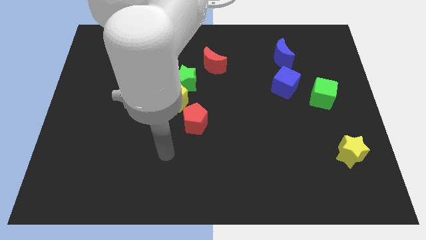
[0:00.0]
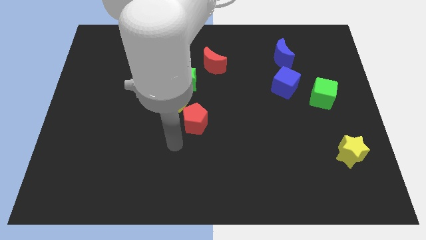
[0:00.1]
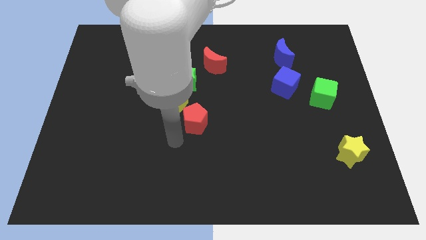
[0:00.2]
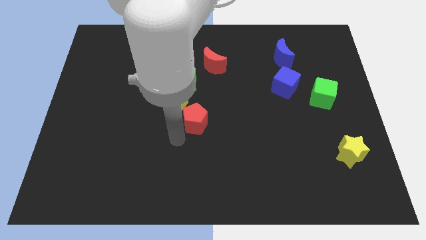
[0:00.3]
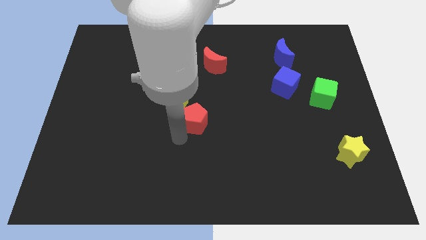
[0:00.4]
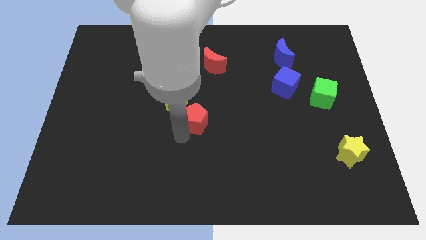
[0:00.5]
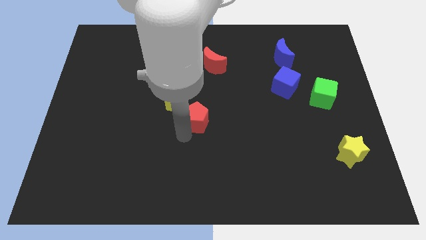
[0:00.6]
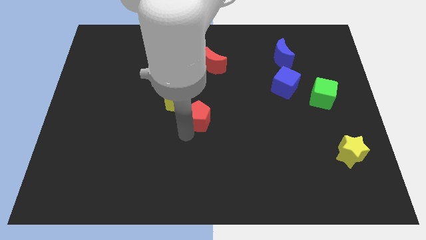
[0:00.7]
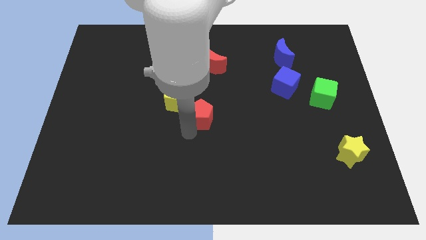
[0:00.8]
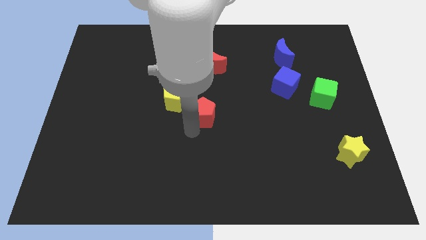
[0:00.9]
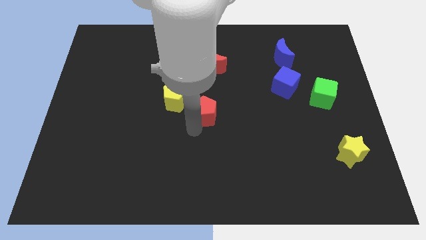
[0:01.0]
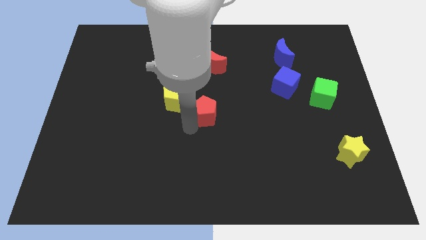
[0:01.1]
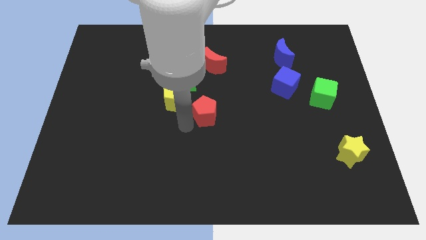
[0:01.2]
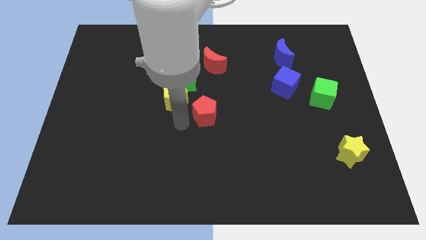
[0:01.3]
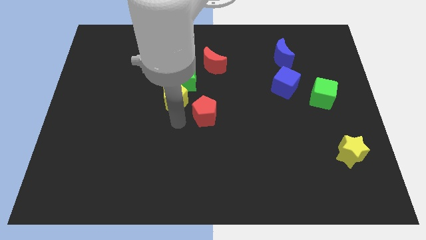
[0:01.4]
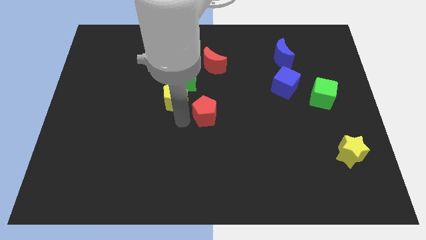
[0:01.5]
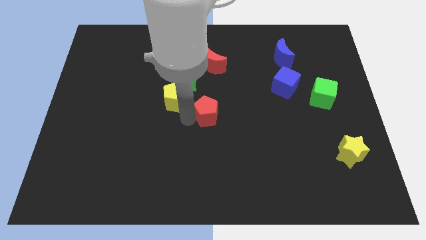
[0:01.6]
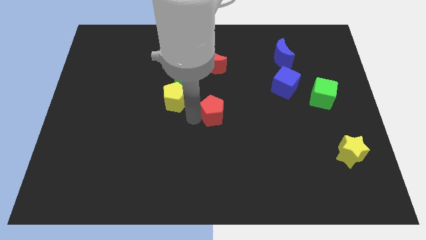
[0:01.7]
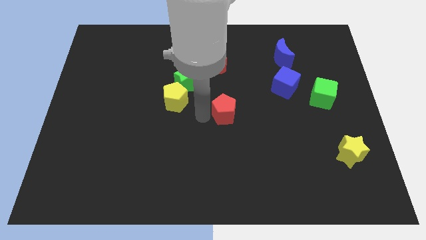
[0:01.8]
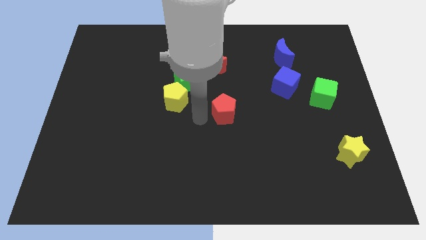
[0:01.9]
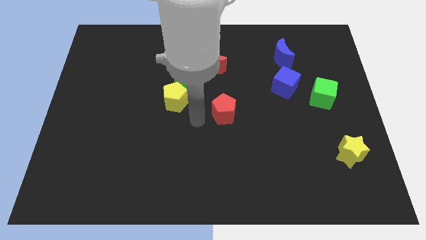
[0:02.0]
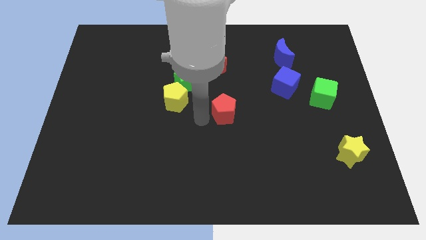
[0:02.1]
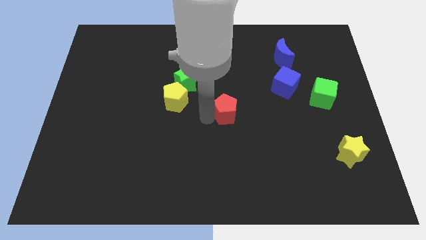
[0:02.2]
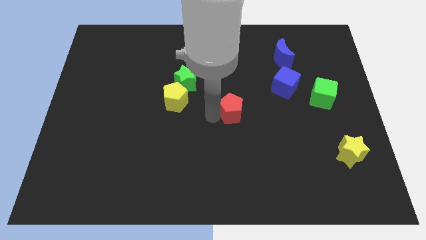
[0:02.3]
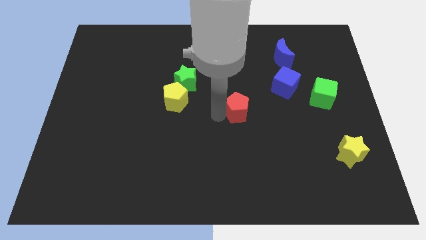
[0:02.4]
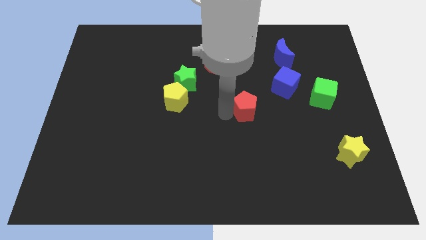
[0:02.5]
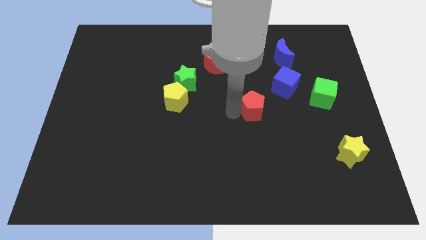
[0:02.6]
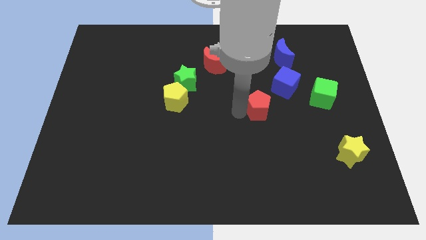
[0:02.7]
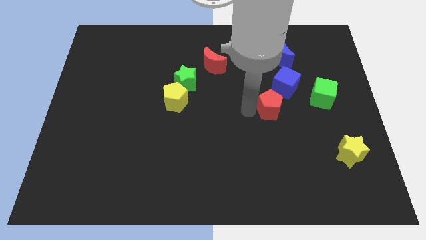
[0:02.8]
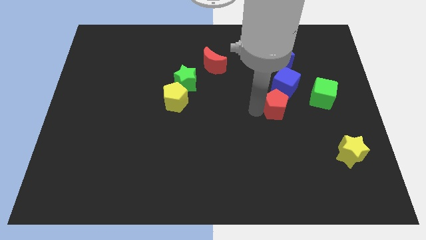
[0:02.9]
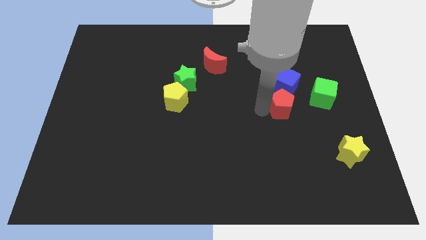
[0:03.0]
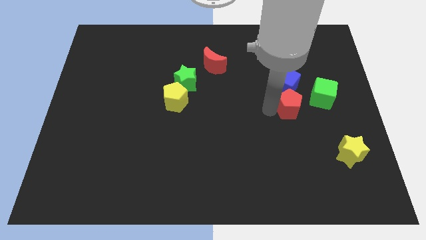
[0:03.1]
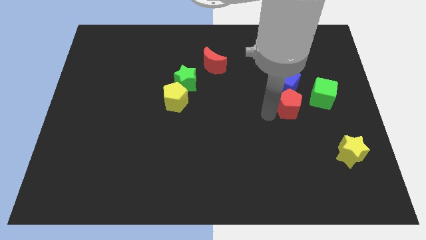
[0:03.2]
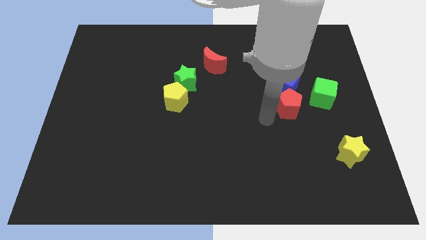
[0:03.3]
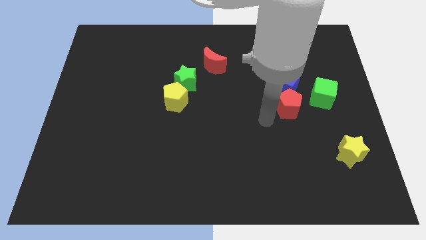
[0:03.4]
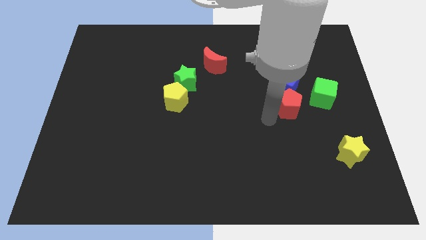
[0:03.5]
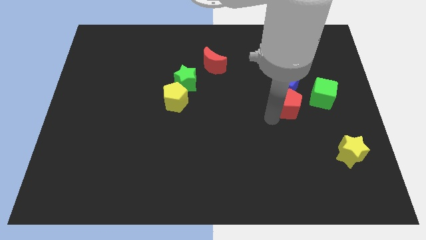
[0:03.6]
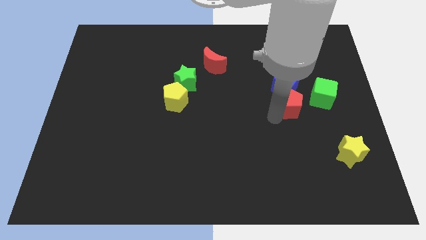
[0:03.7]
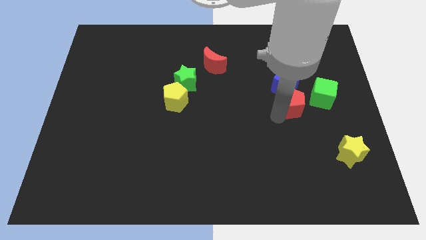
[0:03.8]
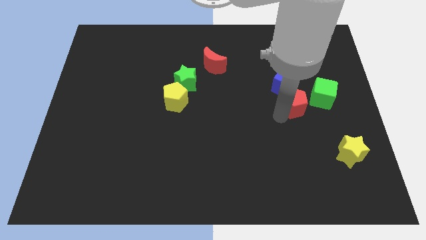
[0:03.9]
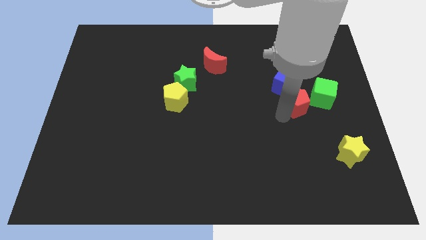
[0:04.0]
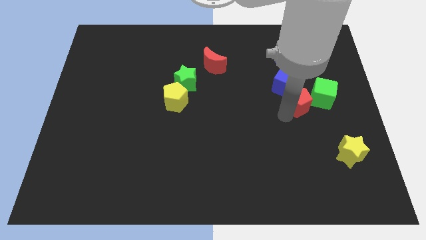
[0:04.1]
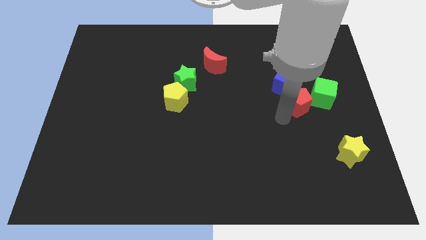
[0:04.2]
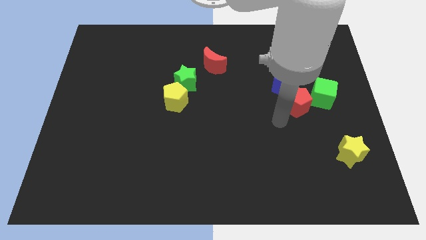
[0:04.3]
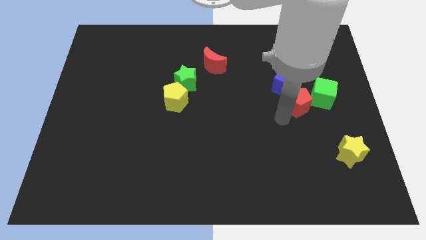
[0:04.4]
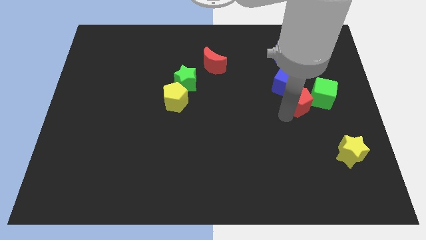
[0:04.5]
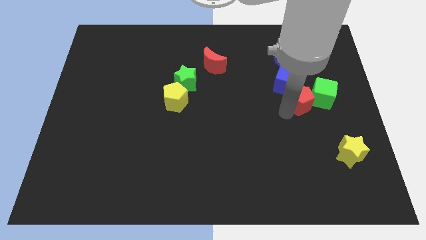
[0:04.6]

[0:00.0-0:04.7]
move the red pentagon close to the green cube

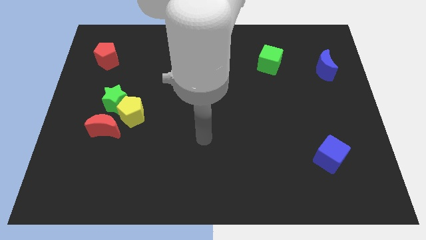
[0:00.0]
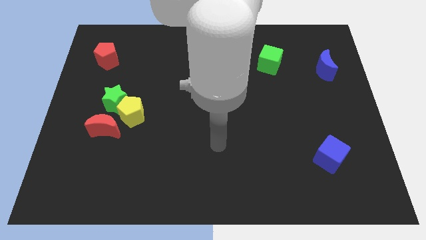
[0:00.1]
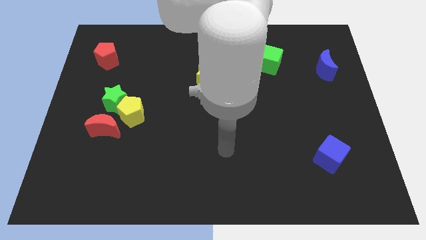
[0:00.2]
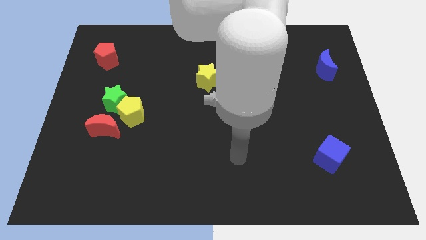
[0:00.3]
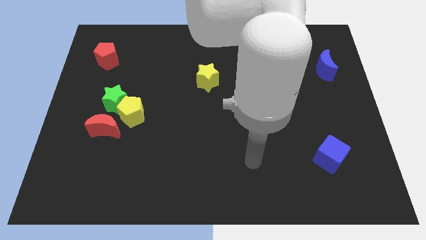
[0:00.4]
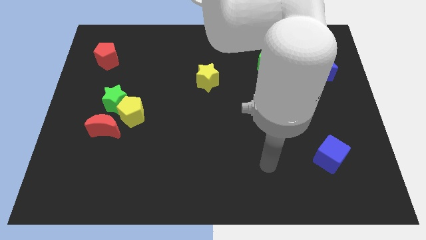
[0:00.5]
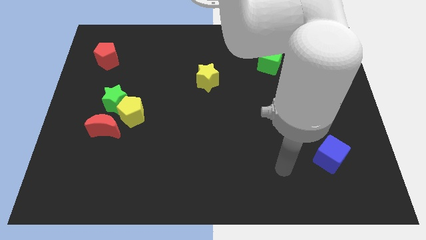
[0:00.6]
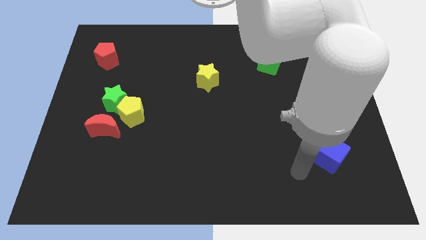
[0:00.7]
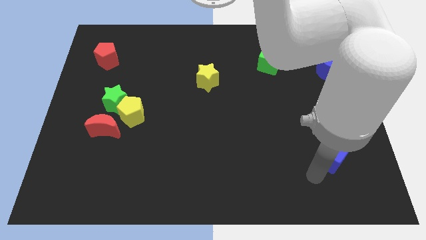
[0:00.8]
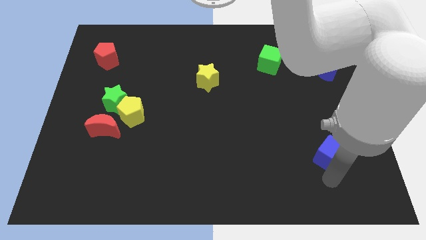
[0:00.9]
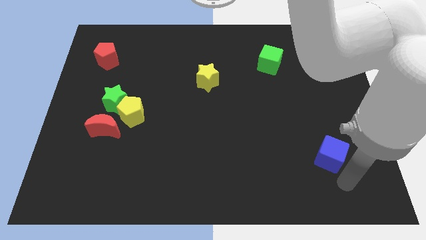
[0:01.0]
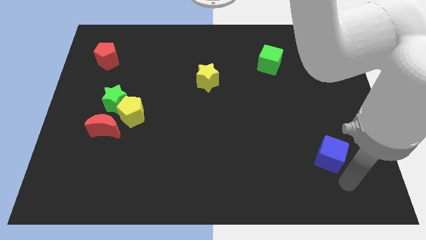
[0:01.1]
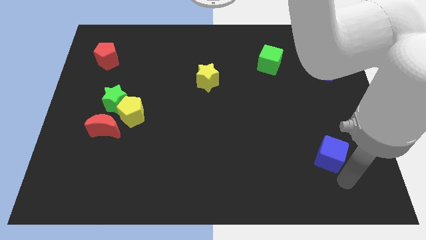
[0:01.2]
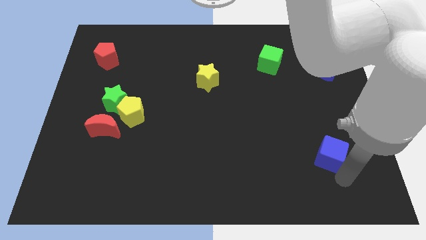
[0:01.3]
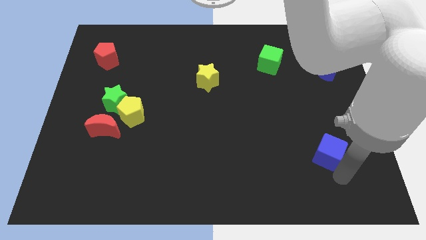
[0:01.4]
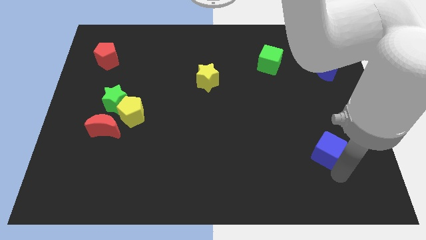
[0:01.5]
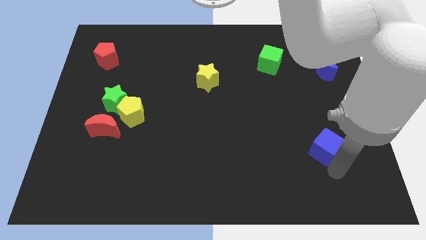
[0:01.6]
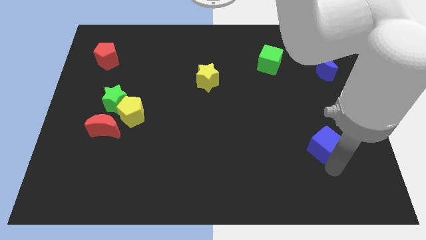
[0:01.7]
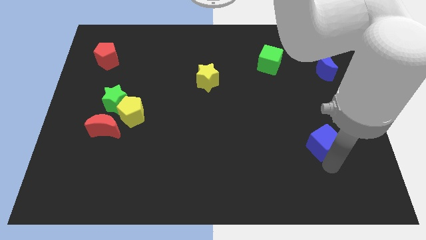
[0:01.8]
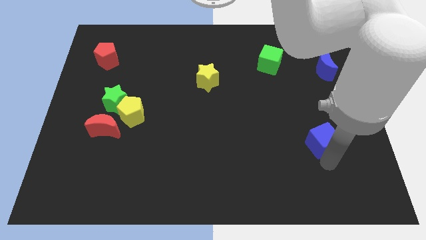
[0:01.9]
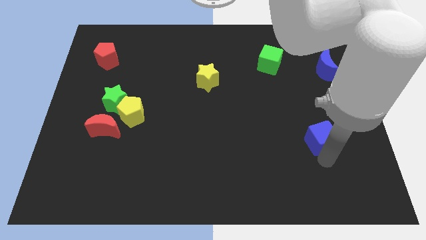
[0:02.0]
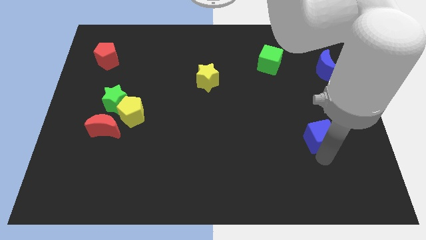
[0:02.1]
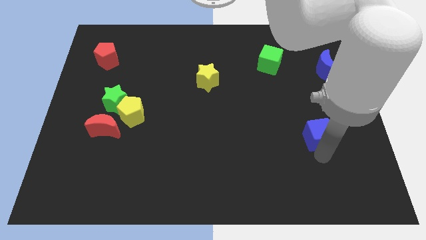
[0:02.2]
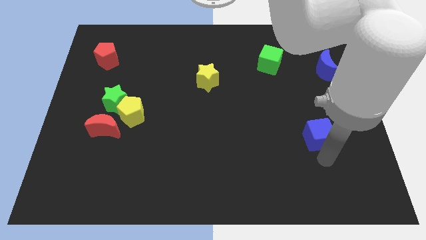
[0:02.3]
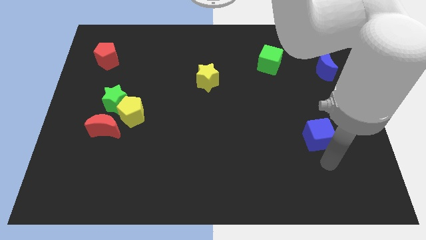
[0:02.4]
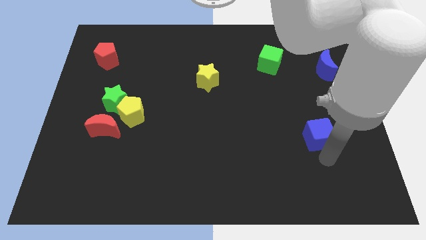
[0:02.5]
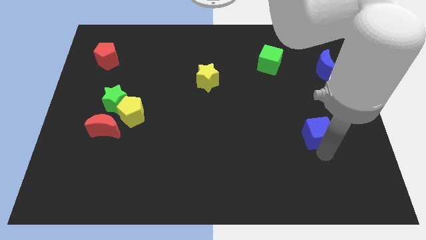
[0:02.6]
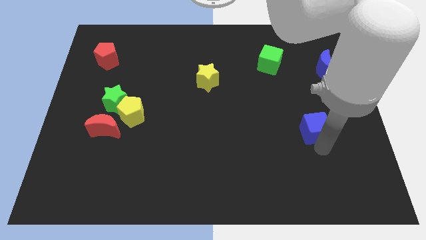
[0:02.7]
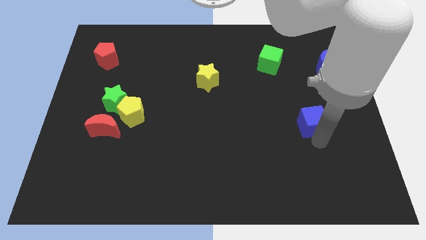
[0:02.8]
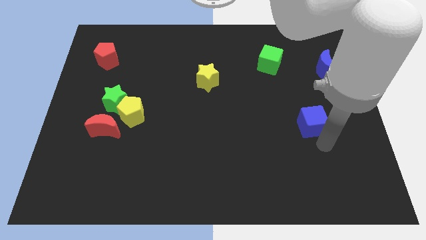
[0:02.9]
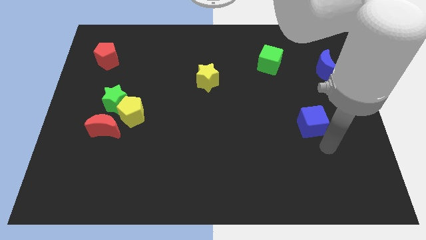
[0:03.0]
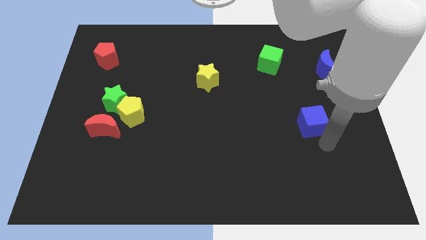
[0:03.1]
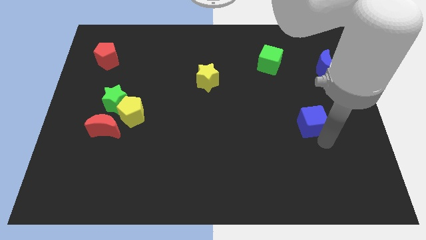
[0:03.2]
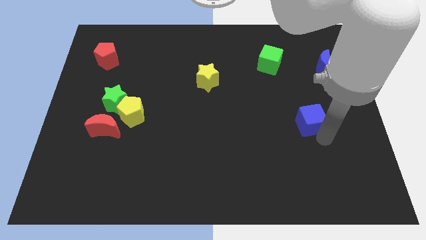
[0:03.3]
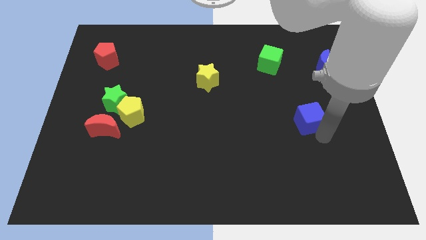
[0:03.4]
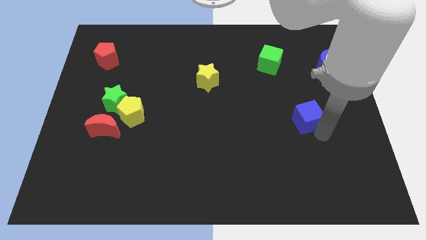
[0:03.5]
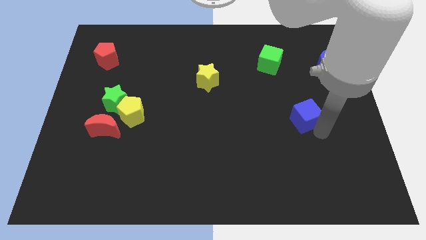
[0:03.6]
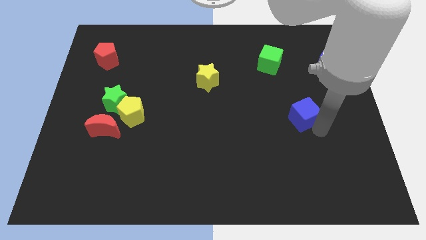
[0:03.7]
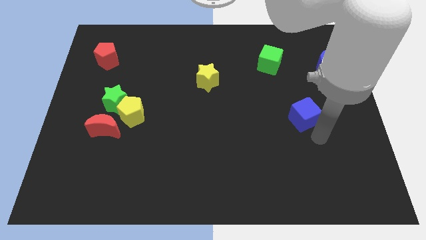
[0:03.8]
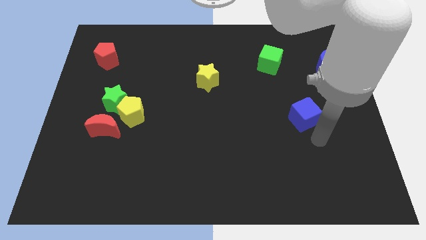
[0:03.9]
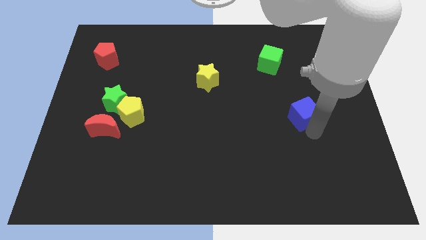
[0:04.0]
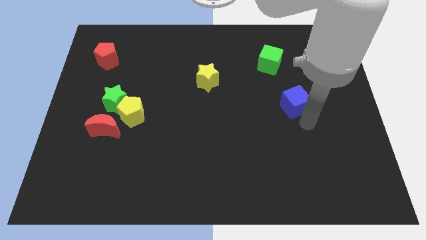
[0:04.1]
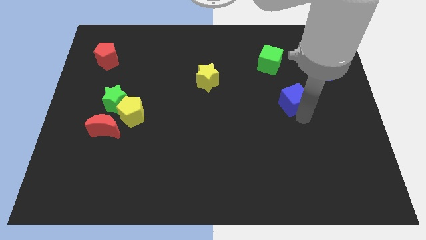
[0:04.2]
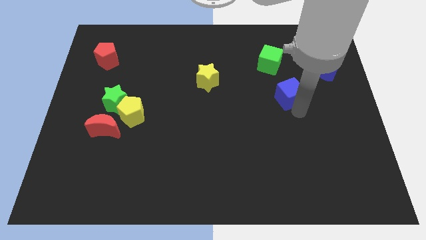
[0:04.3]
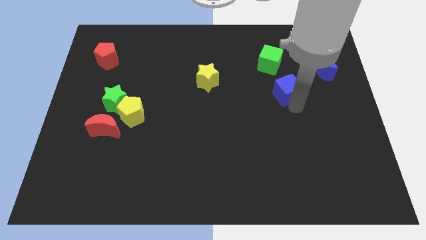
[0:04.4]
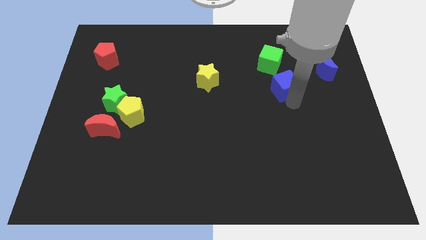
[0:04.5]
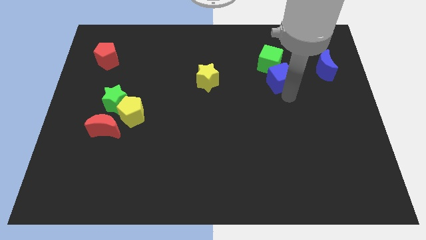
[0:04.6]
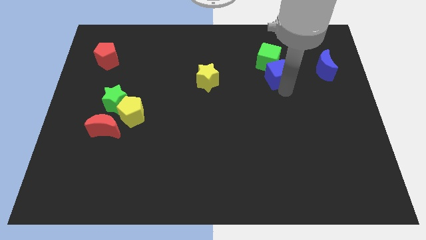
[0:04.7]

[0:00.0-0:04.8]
slide the blue cube close to the green cube
